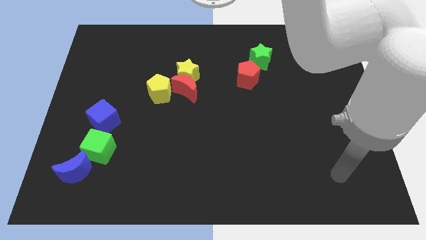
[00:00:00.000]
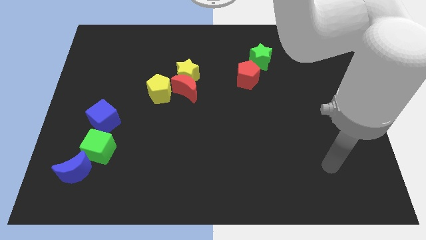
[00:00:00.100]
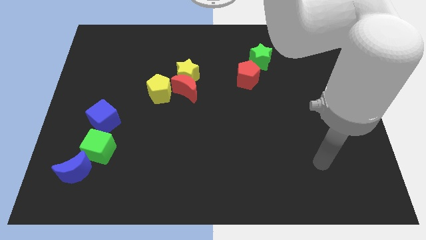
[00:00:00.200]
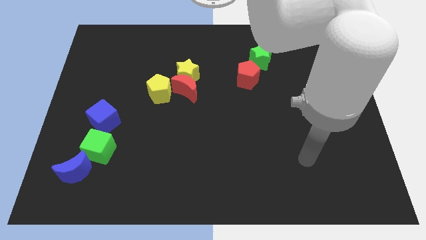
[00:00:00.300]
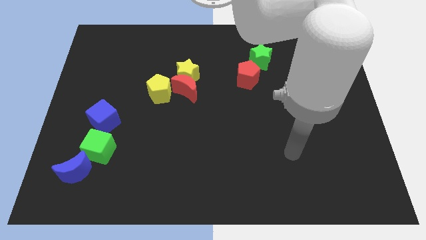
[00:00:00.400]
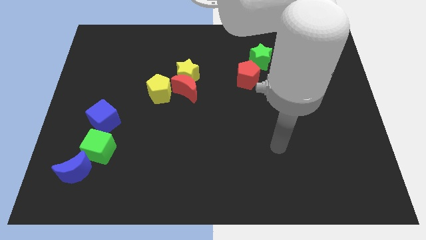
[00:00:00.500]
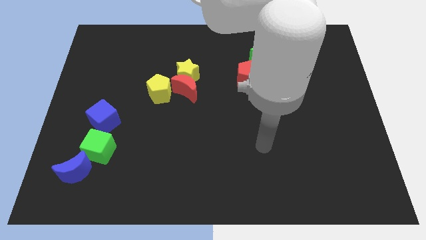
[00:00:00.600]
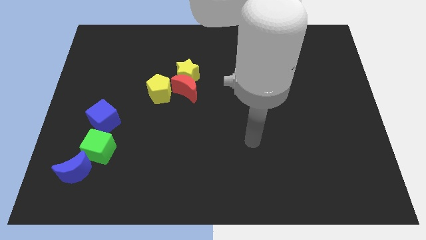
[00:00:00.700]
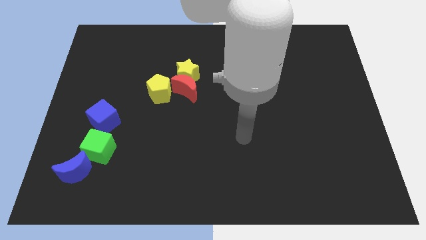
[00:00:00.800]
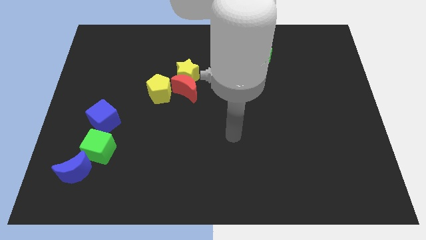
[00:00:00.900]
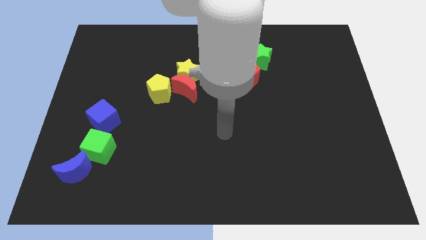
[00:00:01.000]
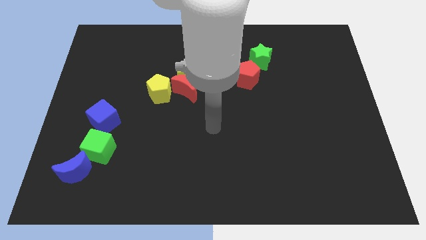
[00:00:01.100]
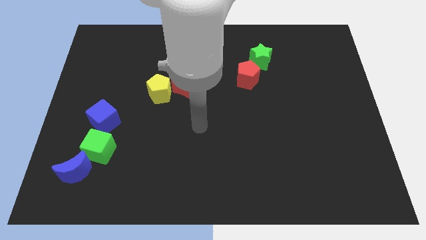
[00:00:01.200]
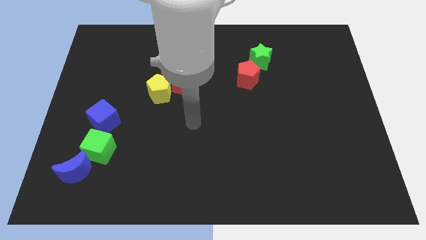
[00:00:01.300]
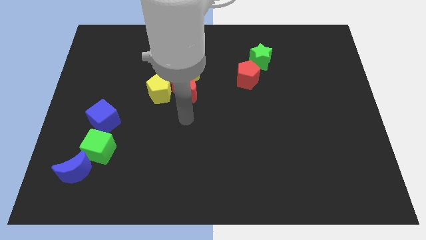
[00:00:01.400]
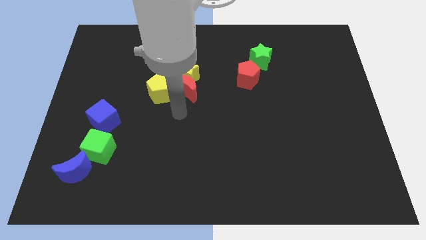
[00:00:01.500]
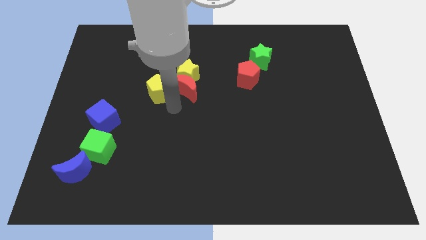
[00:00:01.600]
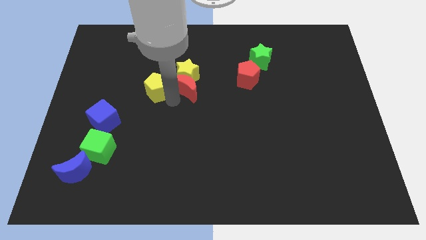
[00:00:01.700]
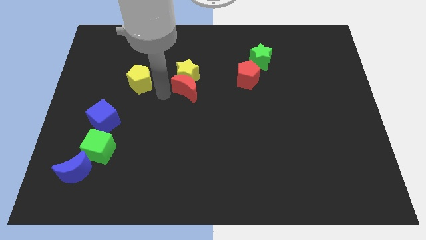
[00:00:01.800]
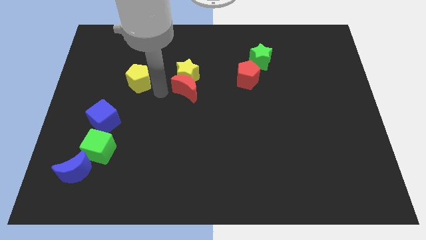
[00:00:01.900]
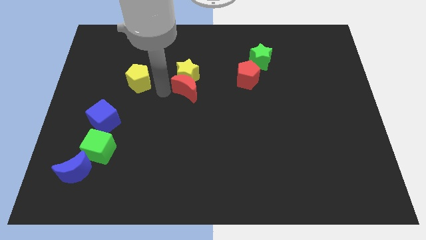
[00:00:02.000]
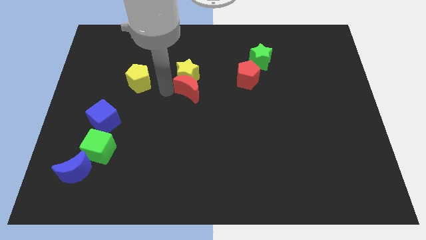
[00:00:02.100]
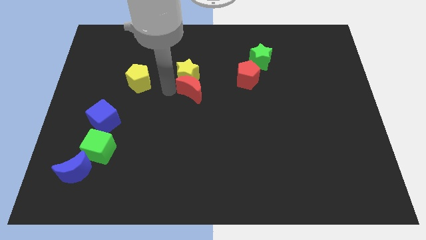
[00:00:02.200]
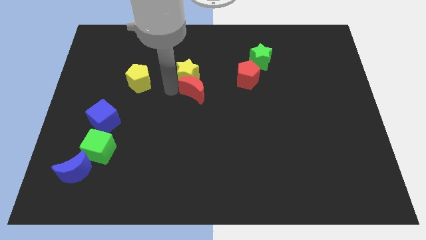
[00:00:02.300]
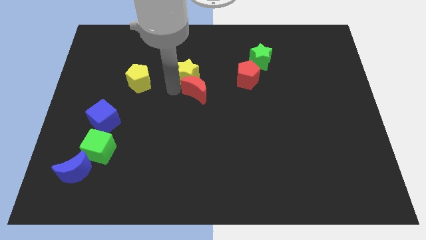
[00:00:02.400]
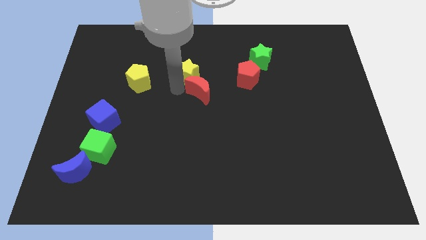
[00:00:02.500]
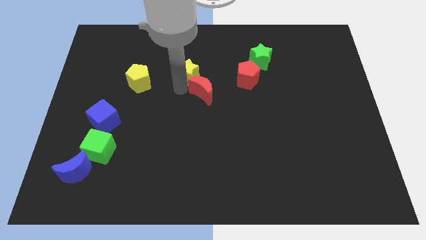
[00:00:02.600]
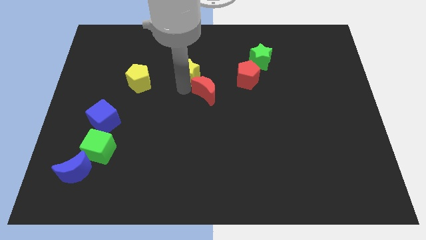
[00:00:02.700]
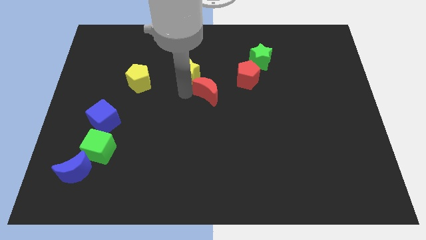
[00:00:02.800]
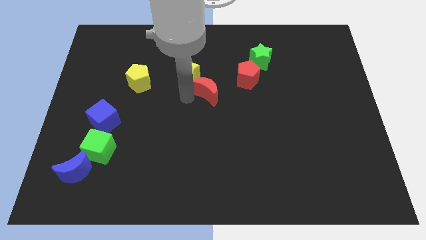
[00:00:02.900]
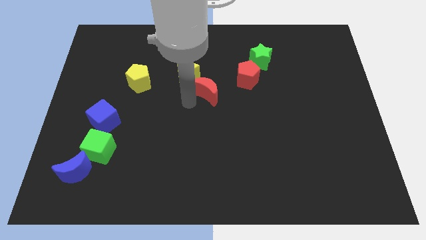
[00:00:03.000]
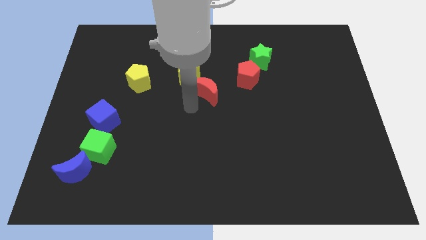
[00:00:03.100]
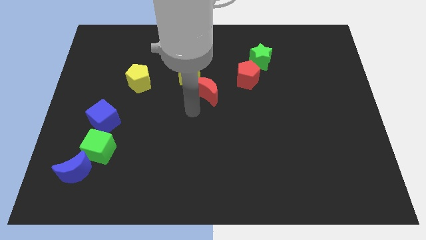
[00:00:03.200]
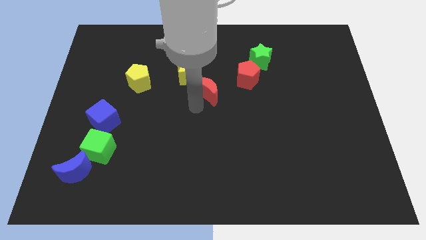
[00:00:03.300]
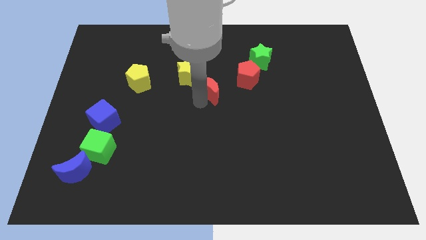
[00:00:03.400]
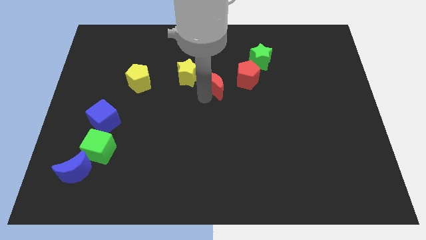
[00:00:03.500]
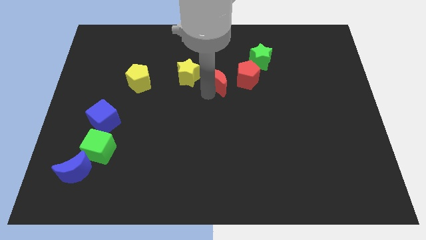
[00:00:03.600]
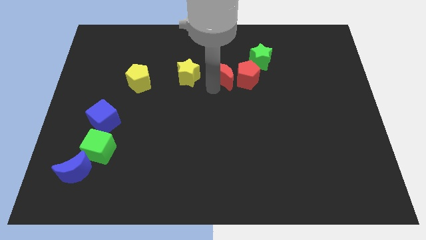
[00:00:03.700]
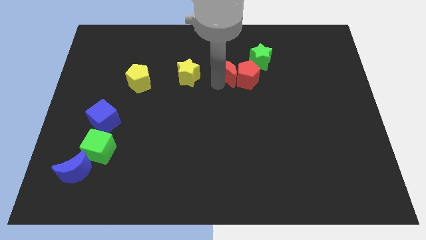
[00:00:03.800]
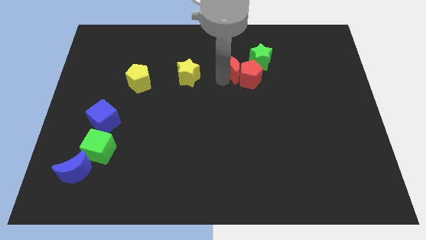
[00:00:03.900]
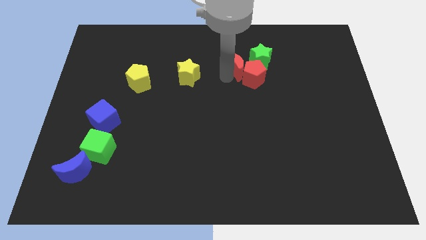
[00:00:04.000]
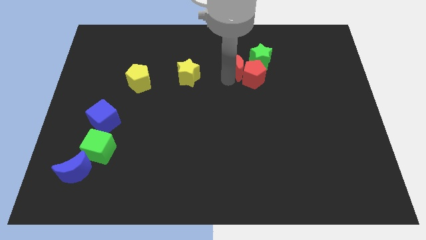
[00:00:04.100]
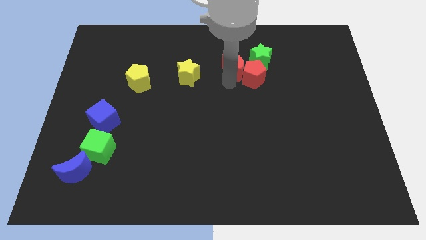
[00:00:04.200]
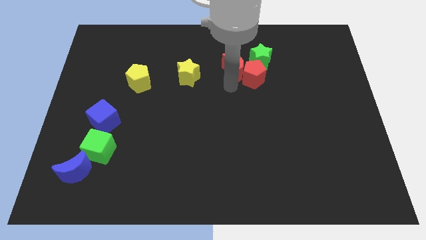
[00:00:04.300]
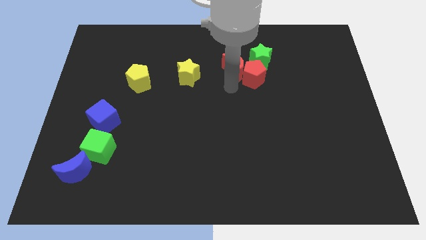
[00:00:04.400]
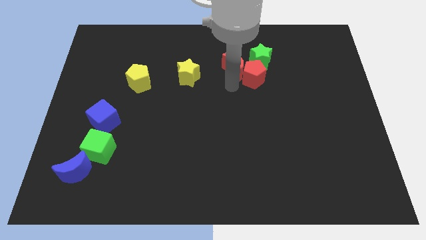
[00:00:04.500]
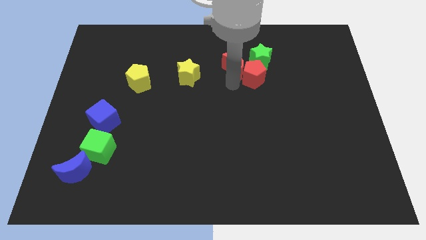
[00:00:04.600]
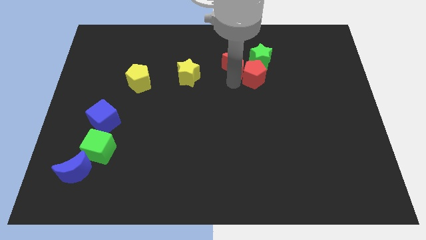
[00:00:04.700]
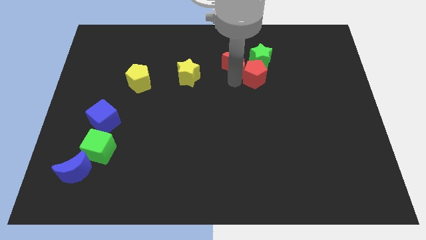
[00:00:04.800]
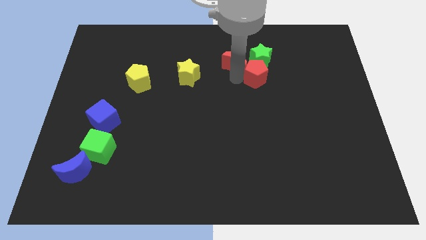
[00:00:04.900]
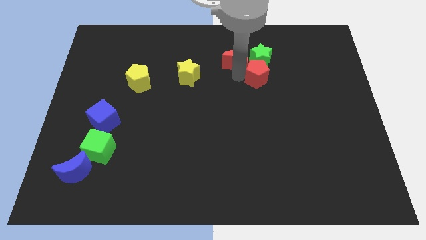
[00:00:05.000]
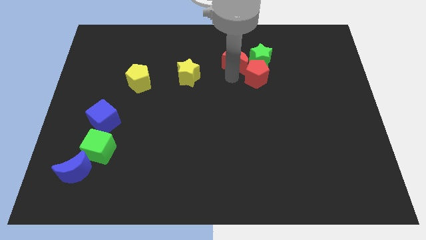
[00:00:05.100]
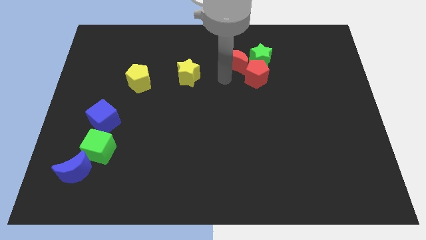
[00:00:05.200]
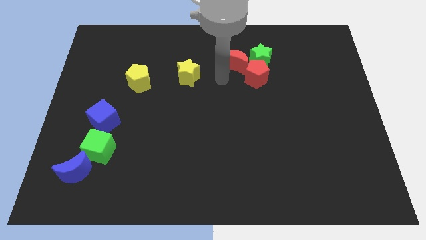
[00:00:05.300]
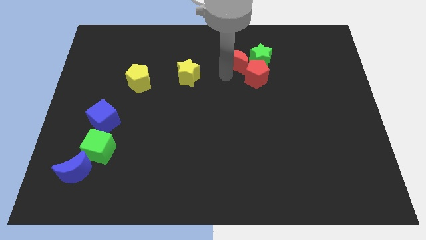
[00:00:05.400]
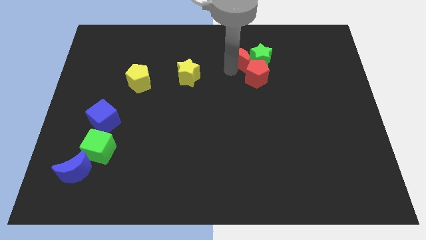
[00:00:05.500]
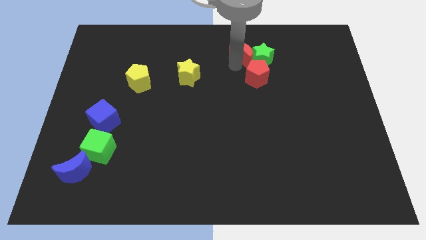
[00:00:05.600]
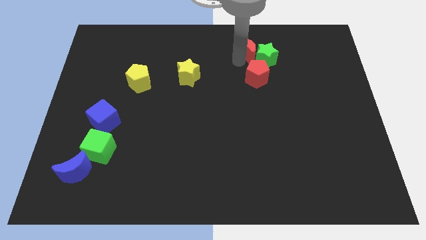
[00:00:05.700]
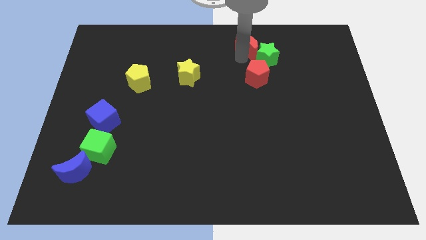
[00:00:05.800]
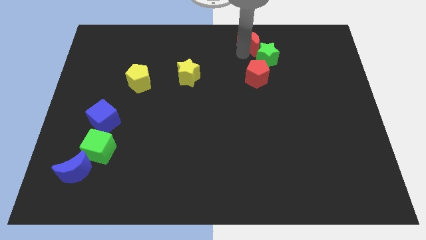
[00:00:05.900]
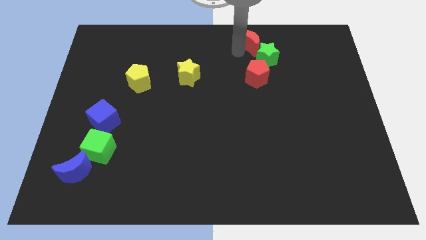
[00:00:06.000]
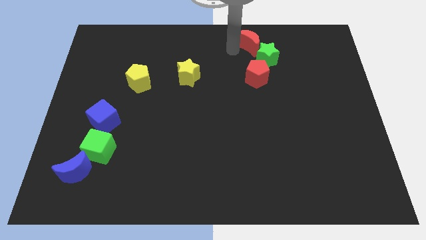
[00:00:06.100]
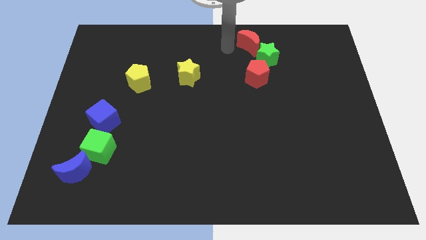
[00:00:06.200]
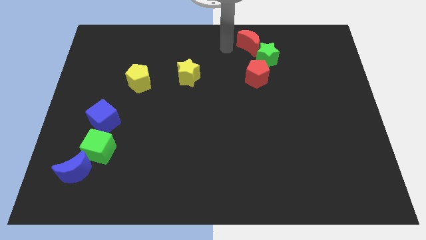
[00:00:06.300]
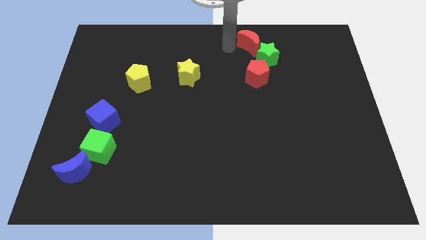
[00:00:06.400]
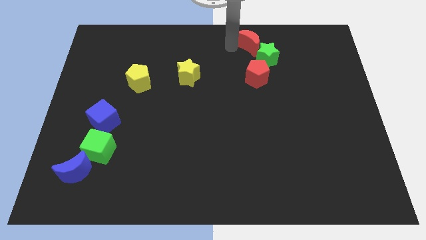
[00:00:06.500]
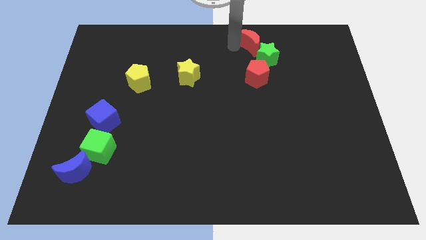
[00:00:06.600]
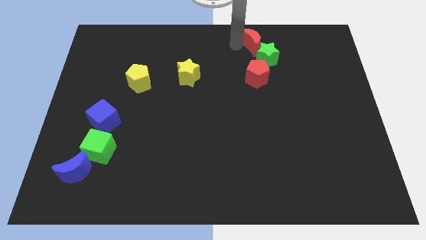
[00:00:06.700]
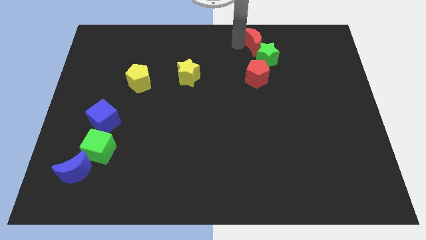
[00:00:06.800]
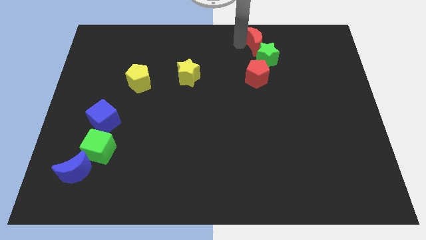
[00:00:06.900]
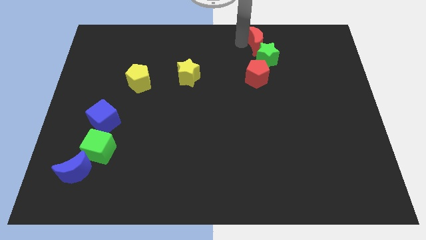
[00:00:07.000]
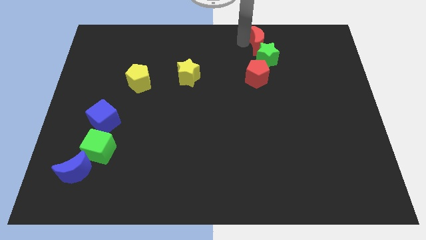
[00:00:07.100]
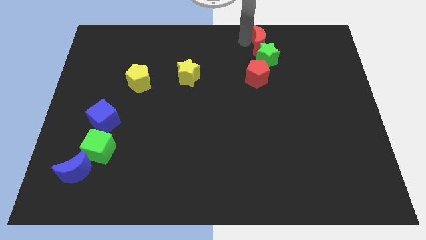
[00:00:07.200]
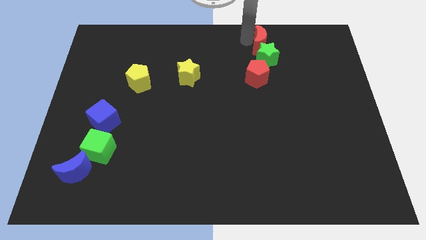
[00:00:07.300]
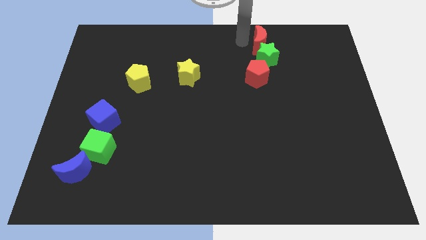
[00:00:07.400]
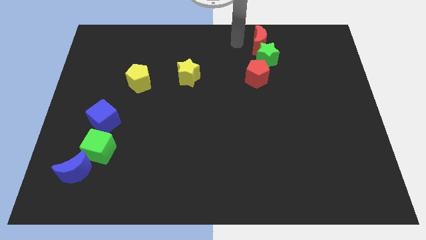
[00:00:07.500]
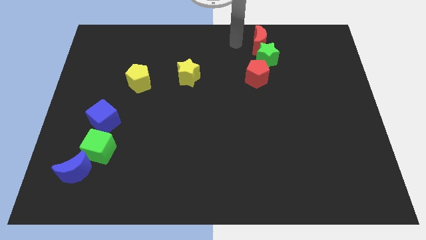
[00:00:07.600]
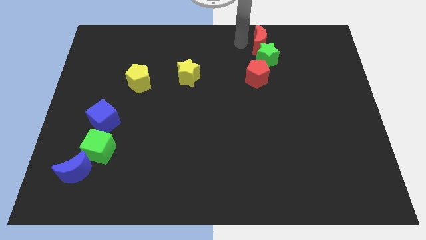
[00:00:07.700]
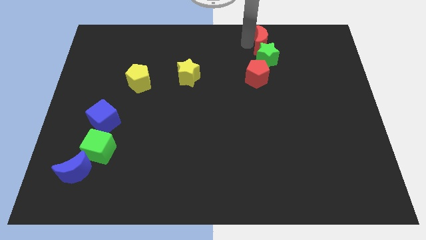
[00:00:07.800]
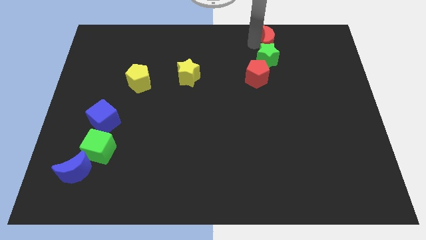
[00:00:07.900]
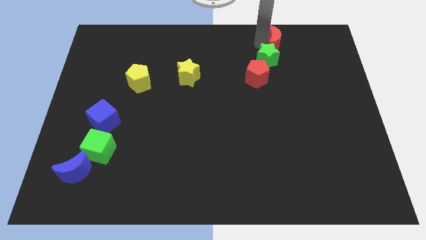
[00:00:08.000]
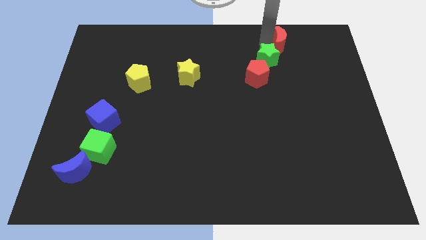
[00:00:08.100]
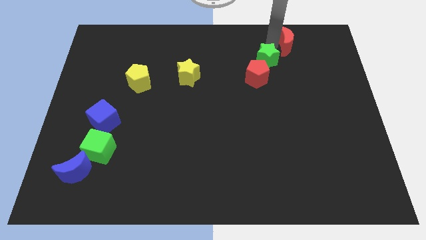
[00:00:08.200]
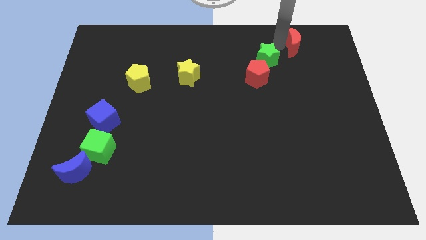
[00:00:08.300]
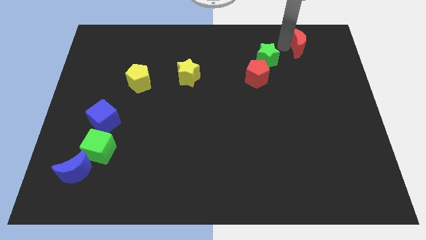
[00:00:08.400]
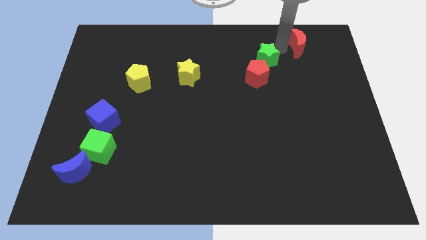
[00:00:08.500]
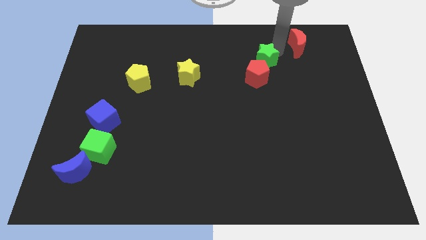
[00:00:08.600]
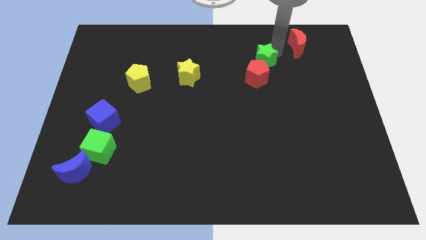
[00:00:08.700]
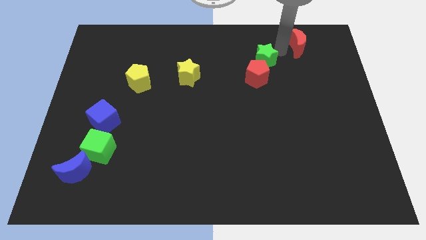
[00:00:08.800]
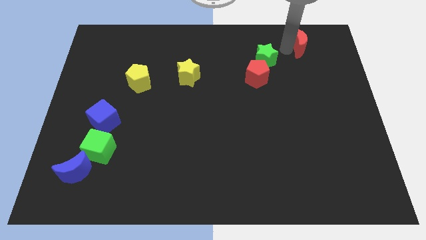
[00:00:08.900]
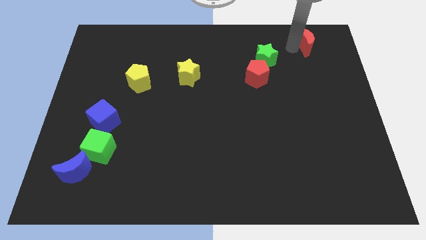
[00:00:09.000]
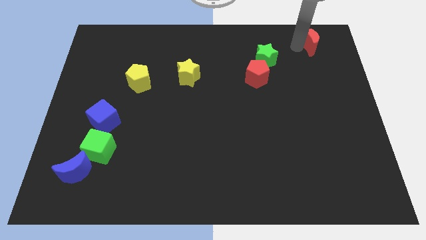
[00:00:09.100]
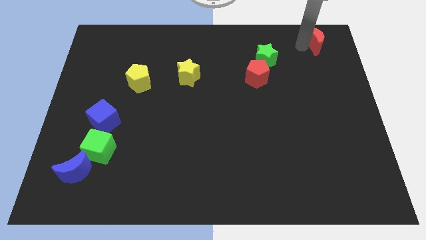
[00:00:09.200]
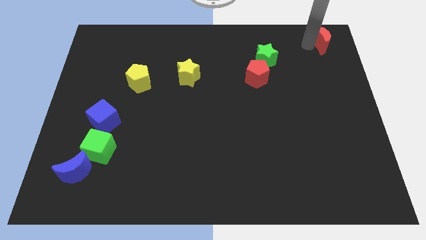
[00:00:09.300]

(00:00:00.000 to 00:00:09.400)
move the red moon to the upper right corner
